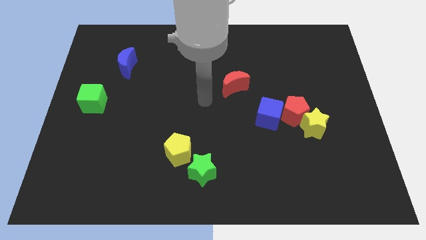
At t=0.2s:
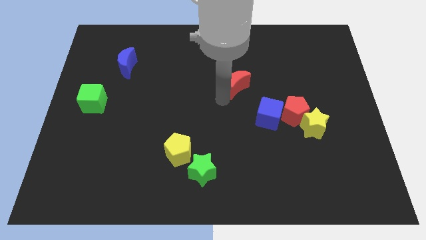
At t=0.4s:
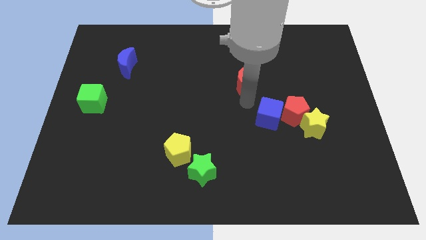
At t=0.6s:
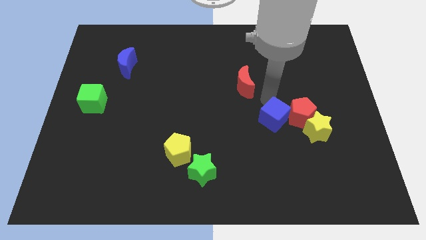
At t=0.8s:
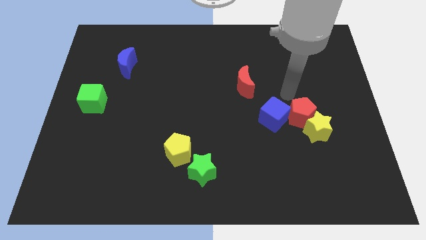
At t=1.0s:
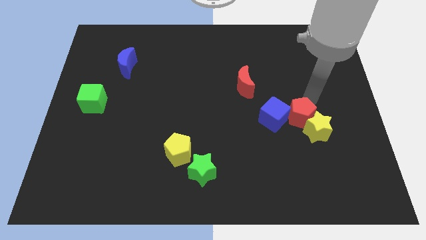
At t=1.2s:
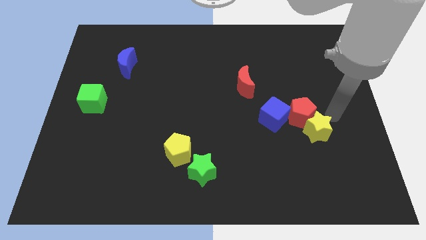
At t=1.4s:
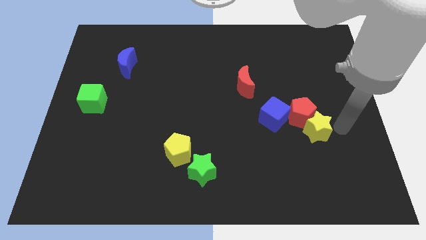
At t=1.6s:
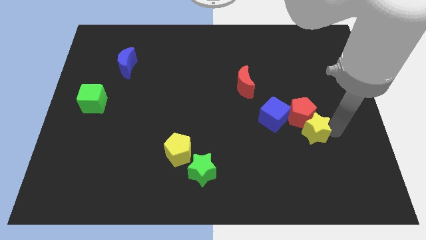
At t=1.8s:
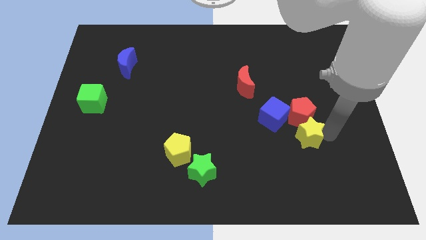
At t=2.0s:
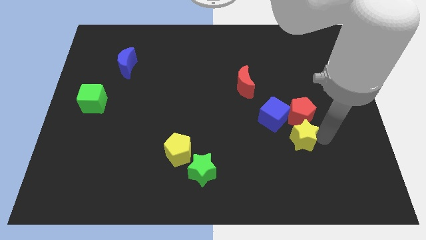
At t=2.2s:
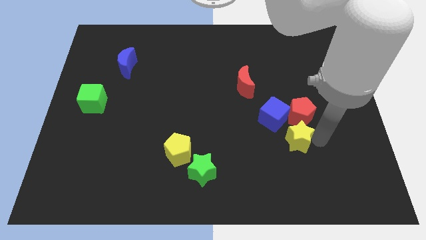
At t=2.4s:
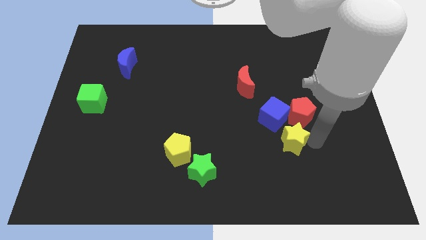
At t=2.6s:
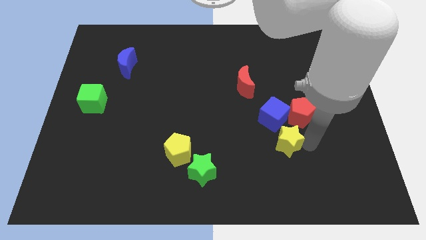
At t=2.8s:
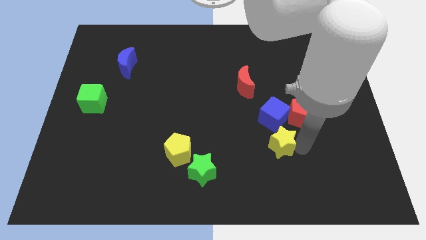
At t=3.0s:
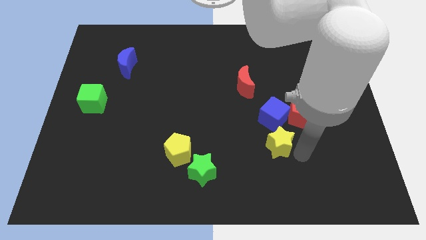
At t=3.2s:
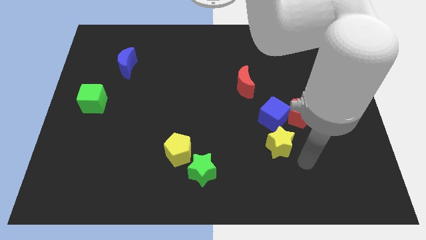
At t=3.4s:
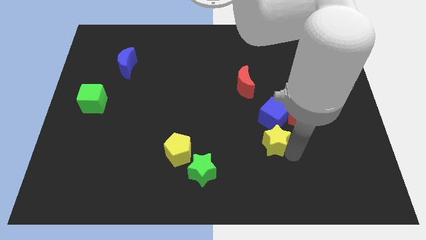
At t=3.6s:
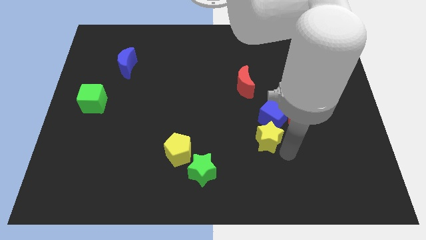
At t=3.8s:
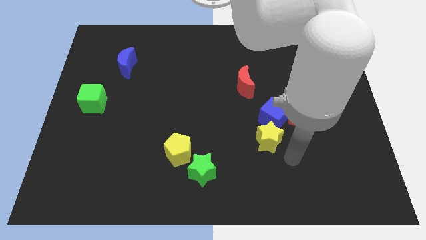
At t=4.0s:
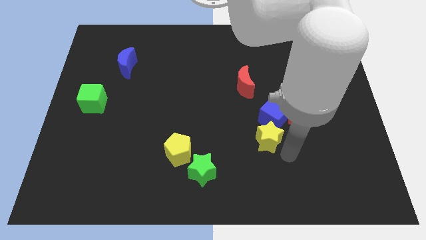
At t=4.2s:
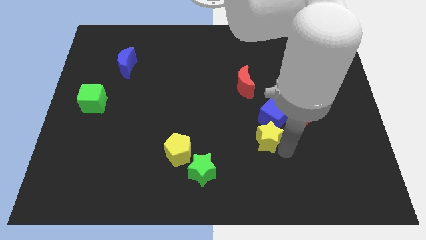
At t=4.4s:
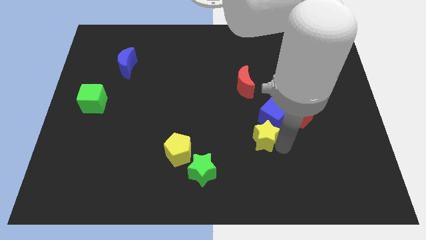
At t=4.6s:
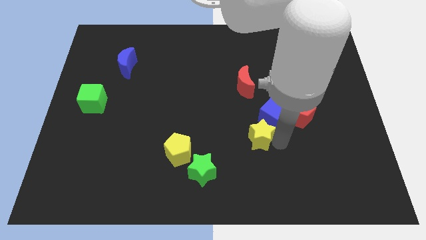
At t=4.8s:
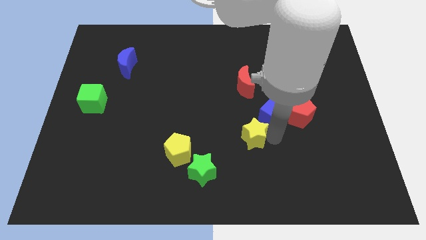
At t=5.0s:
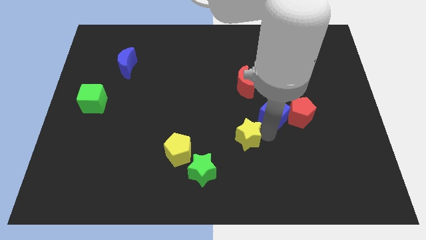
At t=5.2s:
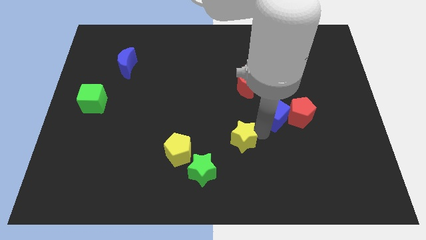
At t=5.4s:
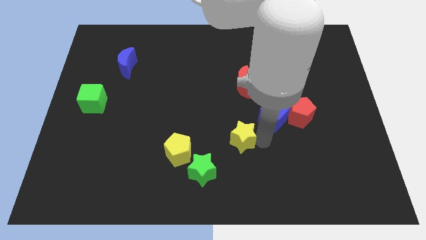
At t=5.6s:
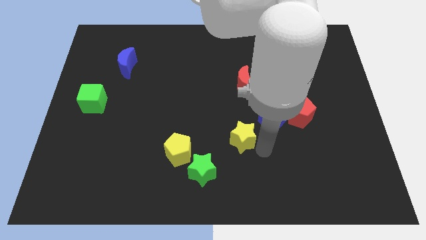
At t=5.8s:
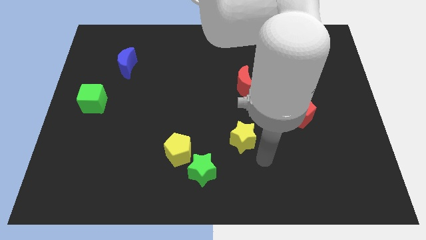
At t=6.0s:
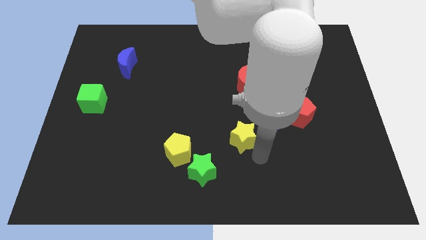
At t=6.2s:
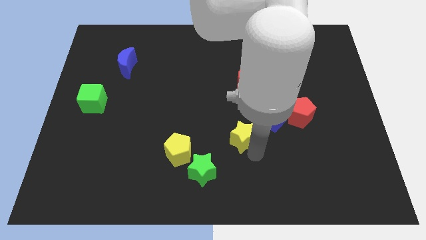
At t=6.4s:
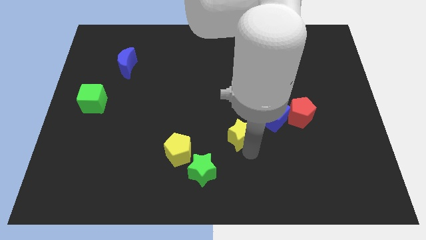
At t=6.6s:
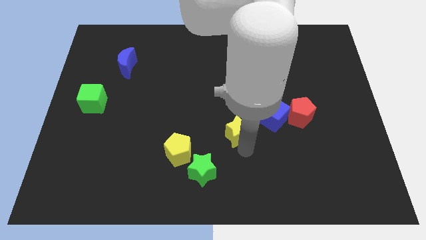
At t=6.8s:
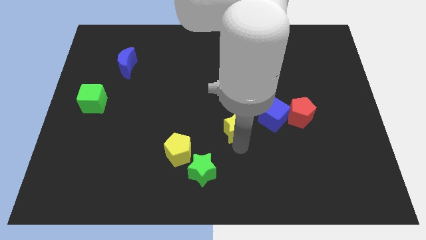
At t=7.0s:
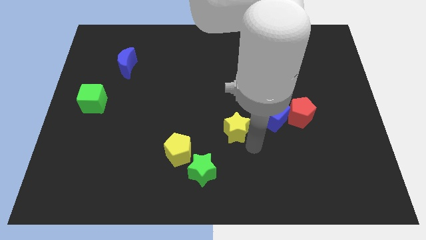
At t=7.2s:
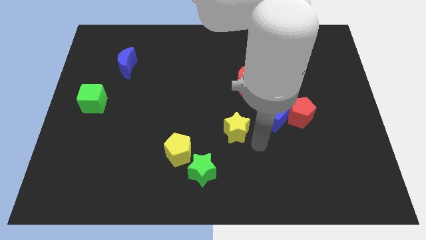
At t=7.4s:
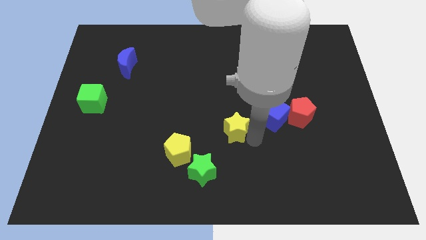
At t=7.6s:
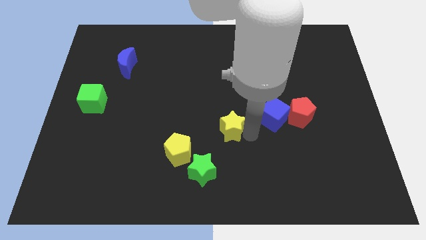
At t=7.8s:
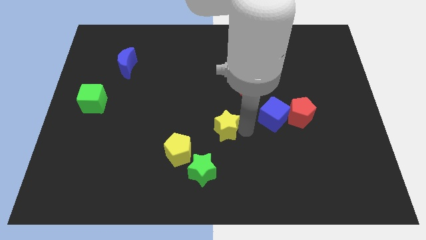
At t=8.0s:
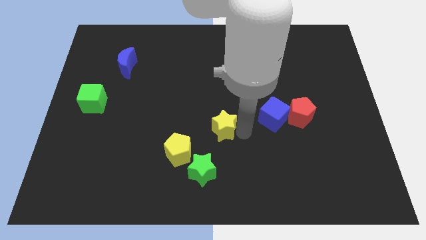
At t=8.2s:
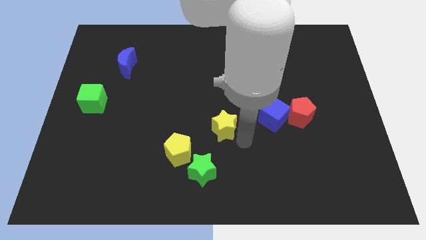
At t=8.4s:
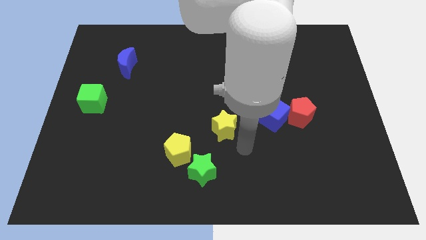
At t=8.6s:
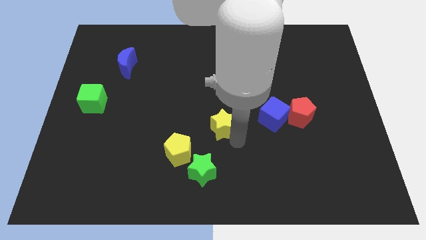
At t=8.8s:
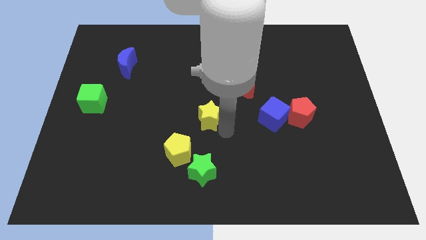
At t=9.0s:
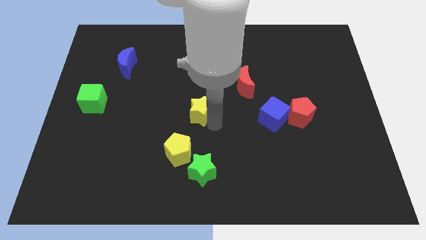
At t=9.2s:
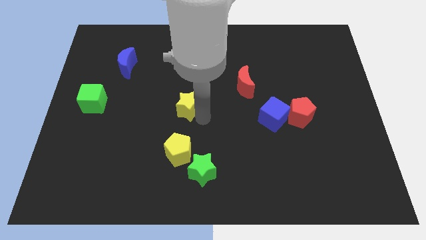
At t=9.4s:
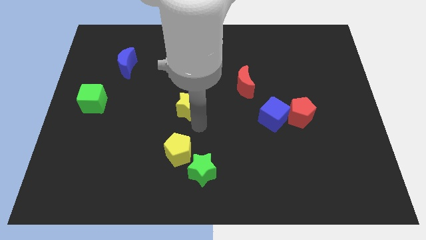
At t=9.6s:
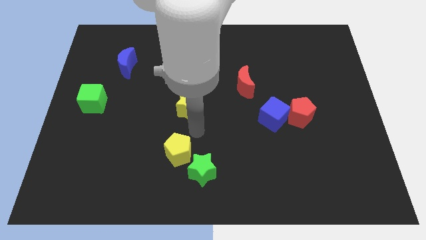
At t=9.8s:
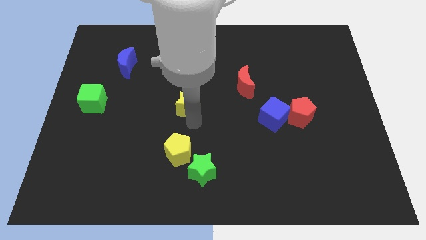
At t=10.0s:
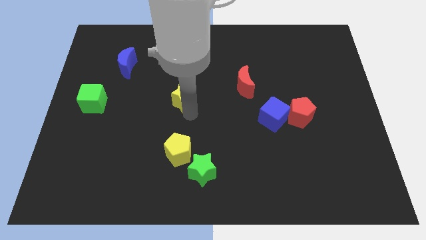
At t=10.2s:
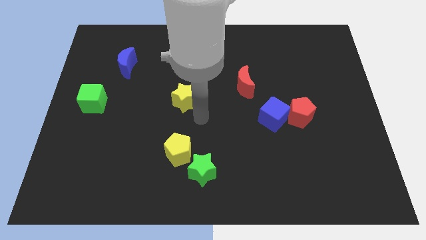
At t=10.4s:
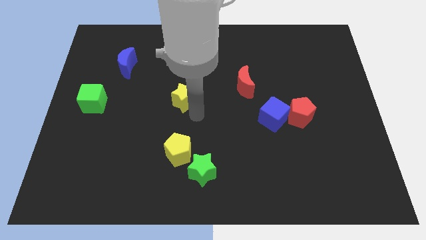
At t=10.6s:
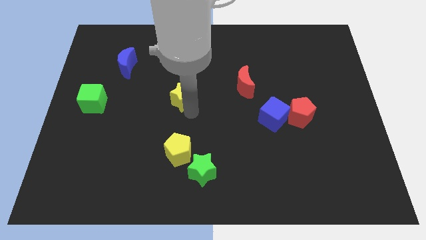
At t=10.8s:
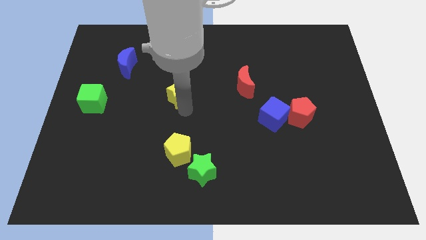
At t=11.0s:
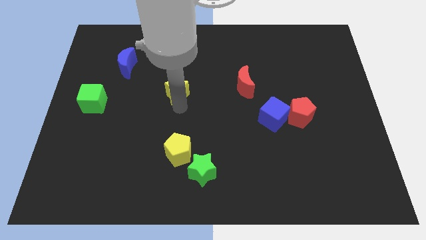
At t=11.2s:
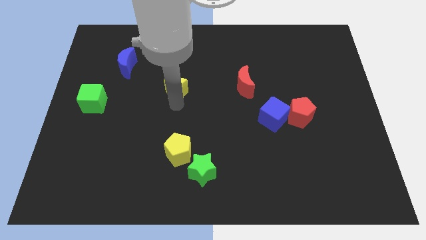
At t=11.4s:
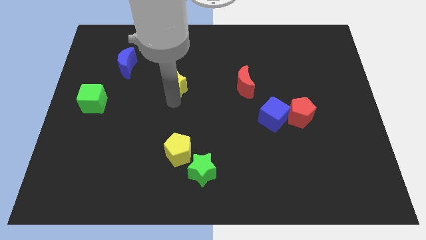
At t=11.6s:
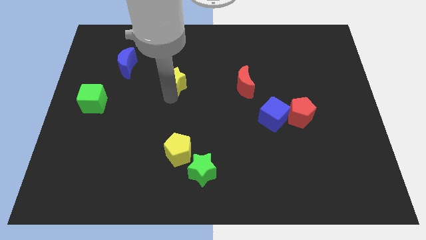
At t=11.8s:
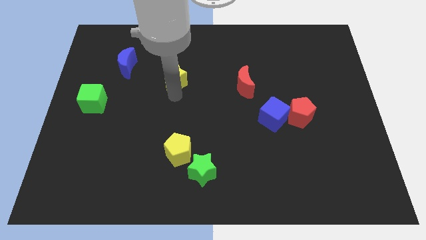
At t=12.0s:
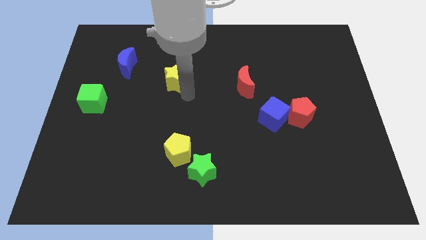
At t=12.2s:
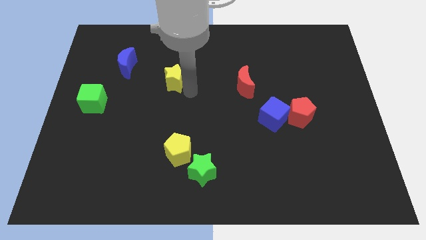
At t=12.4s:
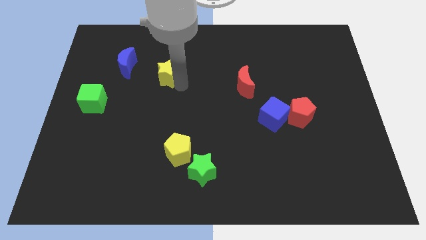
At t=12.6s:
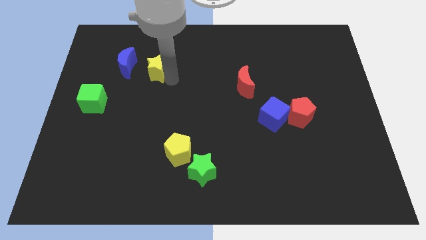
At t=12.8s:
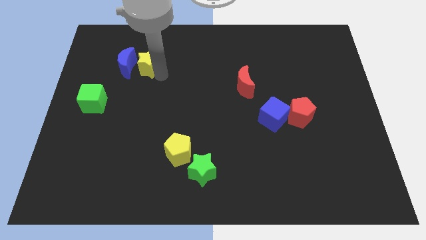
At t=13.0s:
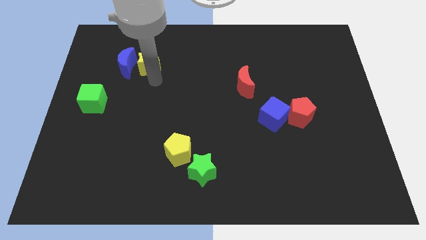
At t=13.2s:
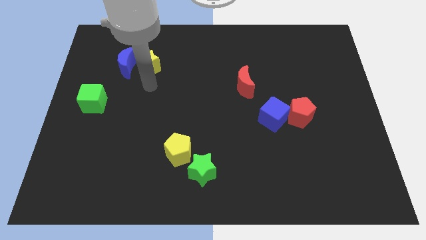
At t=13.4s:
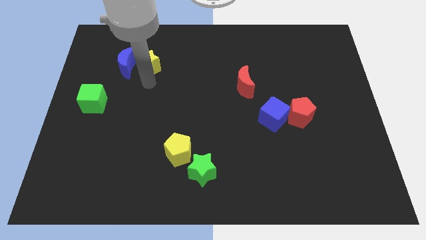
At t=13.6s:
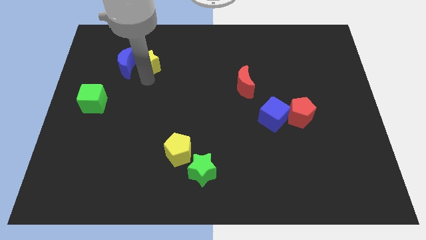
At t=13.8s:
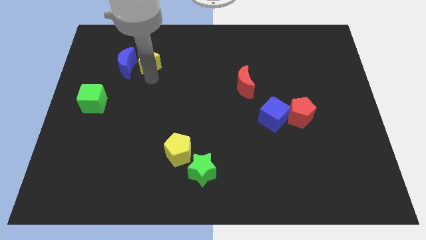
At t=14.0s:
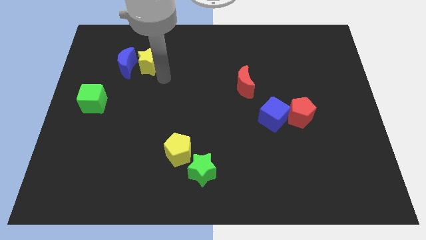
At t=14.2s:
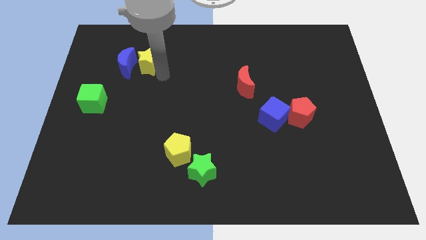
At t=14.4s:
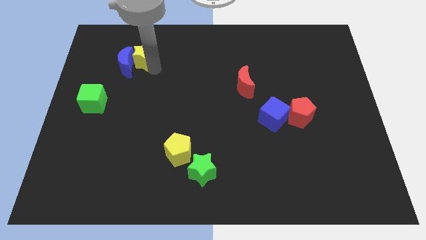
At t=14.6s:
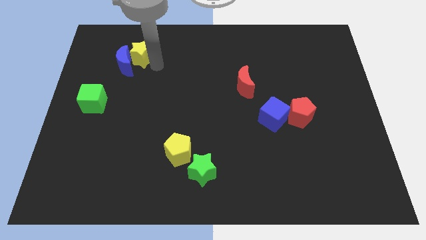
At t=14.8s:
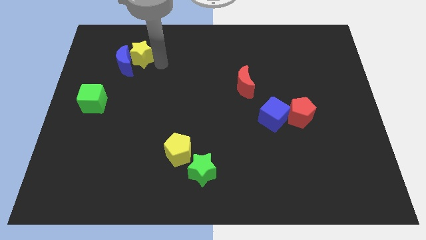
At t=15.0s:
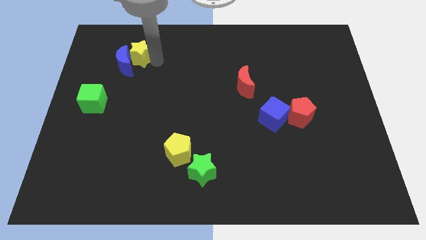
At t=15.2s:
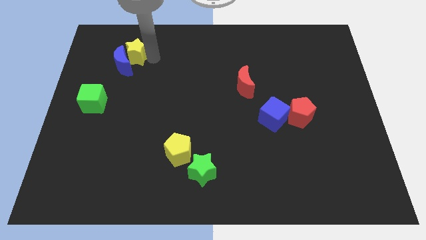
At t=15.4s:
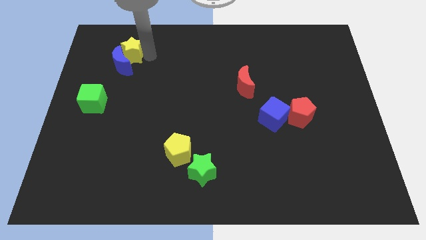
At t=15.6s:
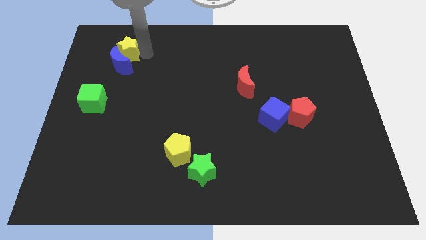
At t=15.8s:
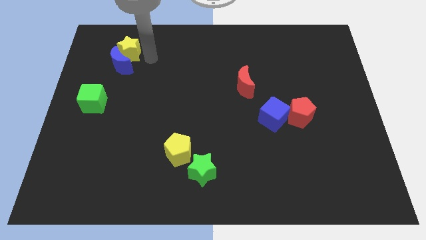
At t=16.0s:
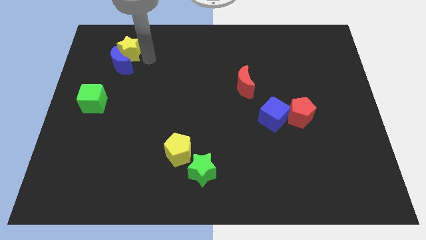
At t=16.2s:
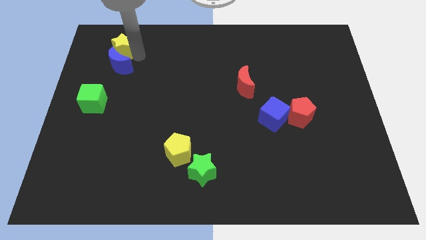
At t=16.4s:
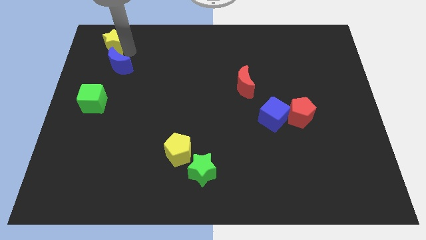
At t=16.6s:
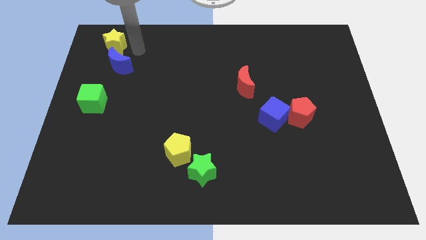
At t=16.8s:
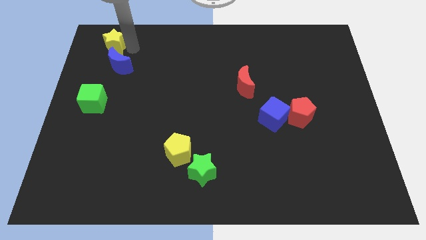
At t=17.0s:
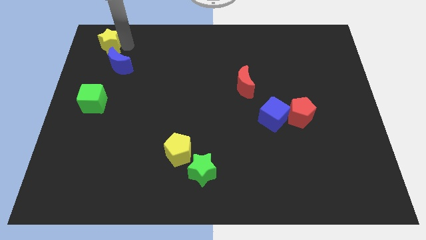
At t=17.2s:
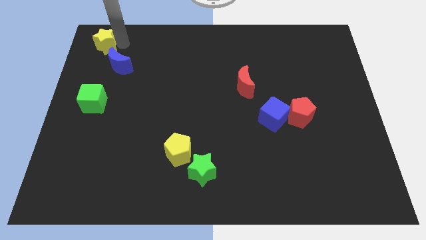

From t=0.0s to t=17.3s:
move the yellow star to the top left corner
